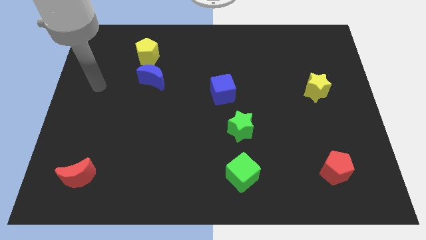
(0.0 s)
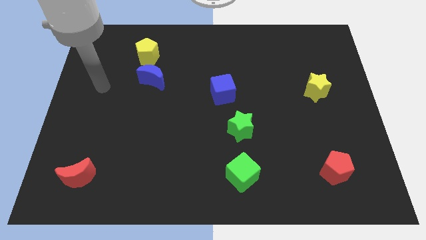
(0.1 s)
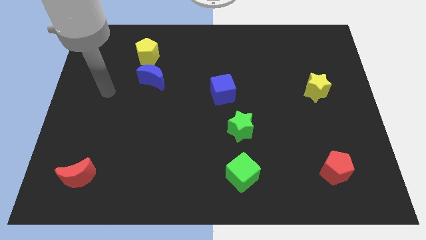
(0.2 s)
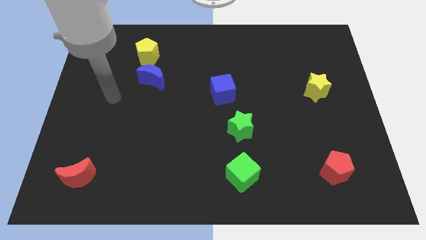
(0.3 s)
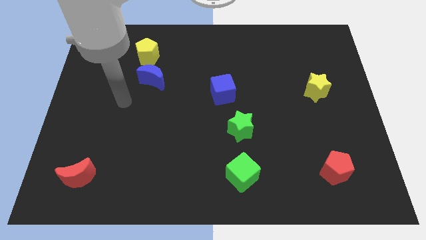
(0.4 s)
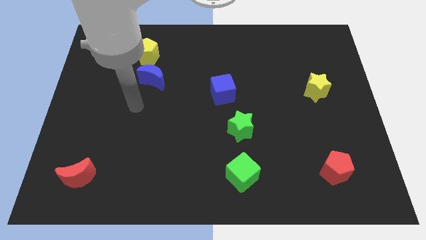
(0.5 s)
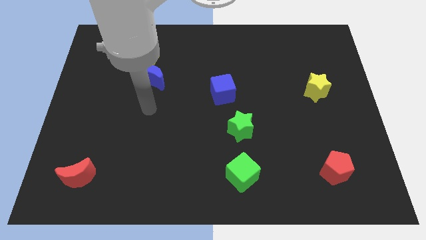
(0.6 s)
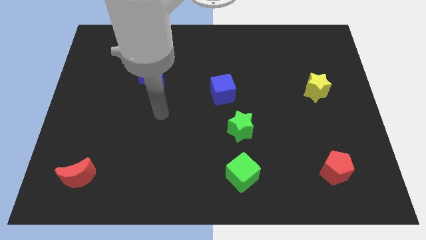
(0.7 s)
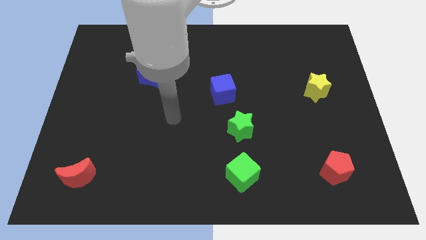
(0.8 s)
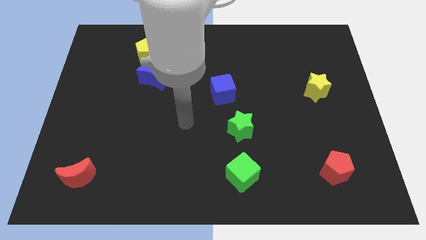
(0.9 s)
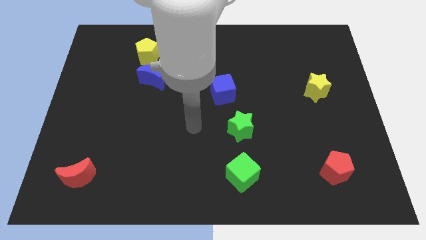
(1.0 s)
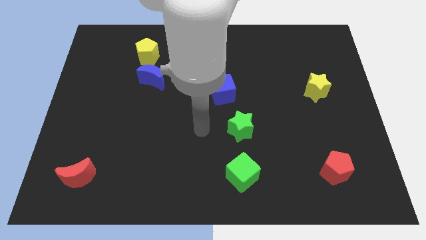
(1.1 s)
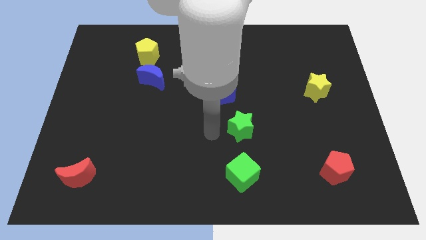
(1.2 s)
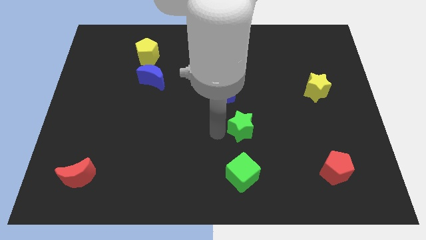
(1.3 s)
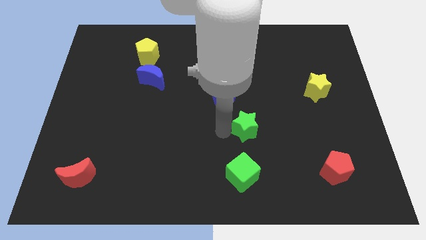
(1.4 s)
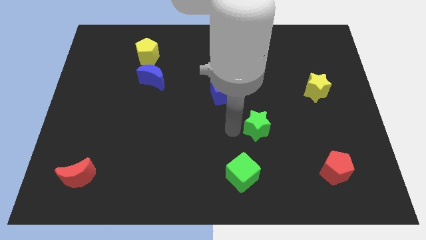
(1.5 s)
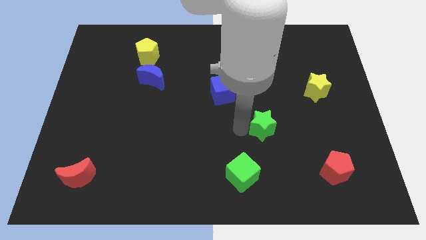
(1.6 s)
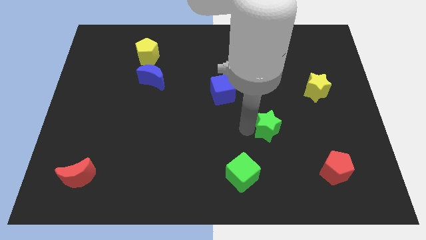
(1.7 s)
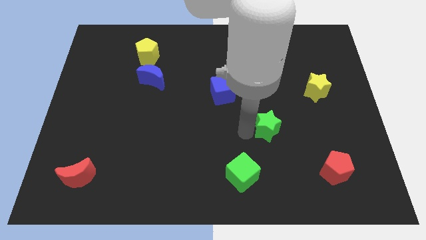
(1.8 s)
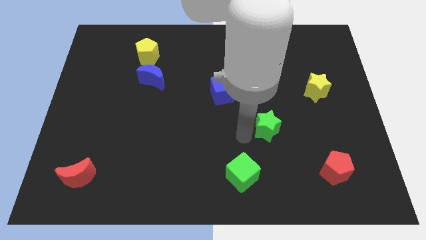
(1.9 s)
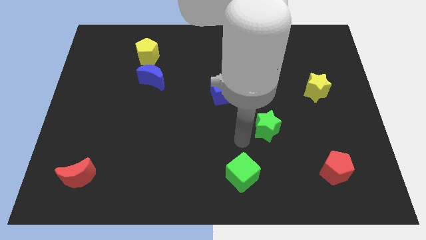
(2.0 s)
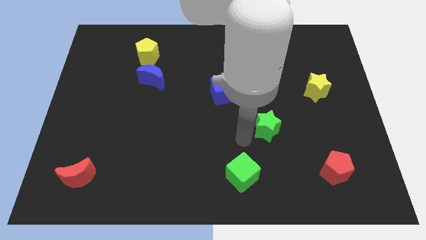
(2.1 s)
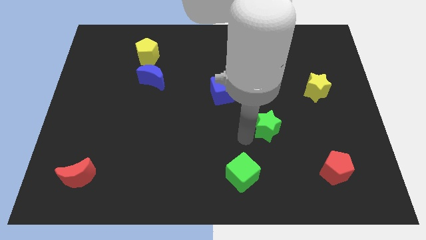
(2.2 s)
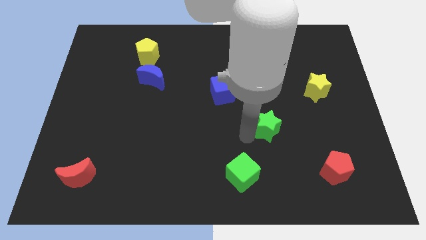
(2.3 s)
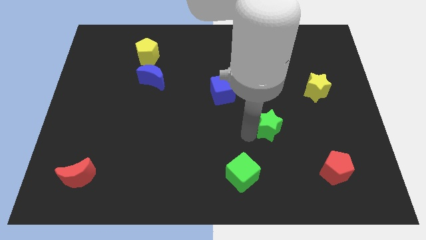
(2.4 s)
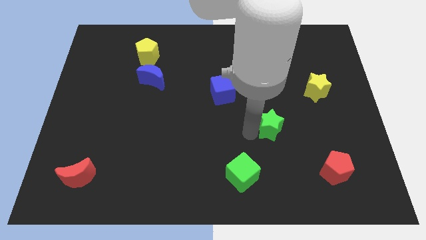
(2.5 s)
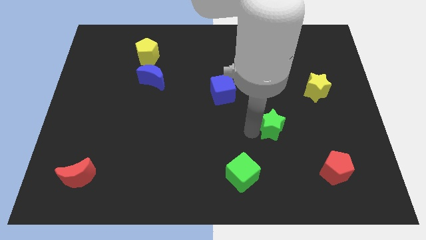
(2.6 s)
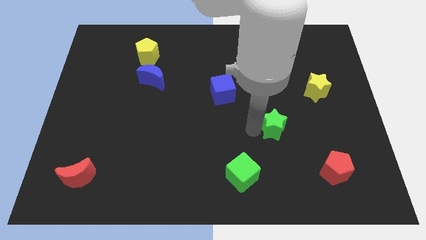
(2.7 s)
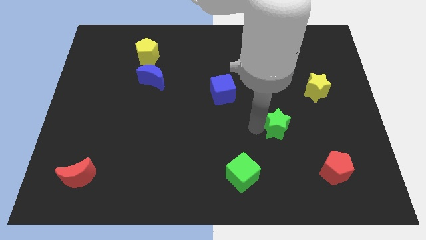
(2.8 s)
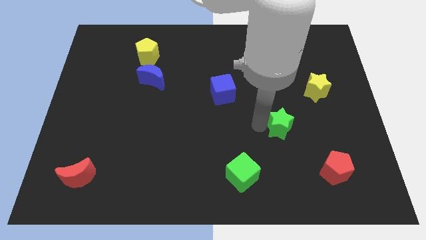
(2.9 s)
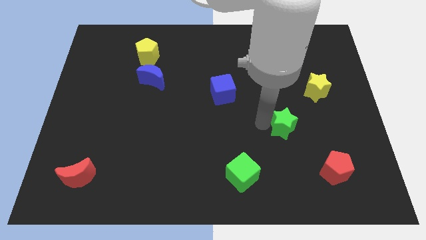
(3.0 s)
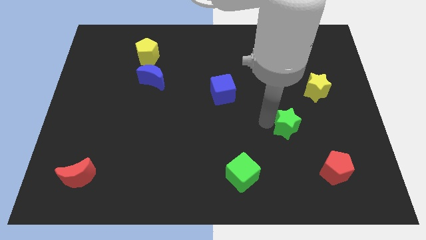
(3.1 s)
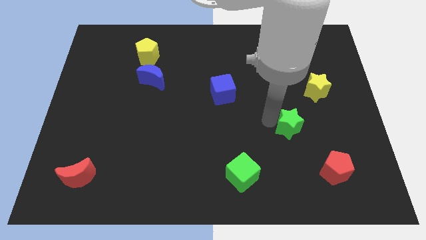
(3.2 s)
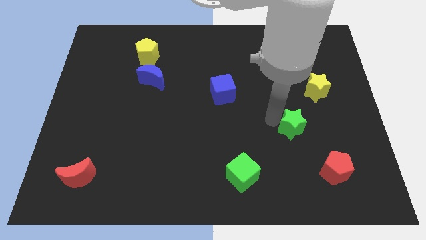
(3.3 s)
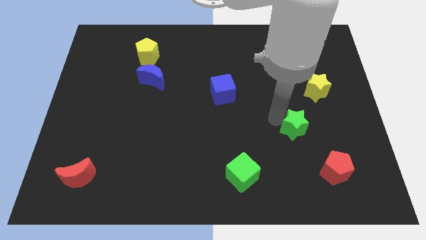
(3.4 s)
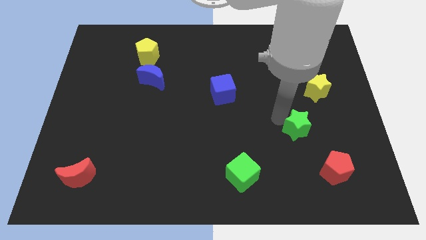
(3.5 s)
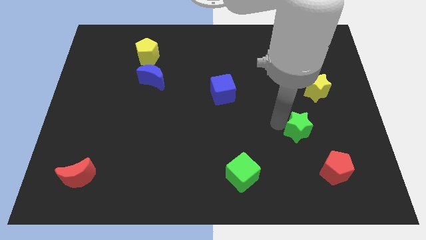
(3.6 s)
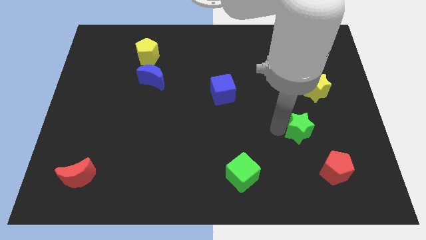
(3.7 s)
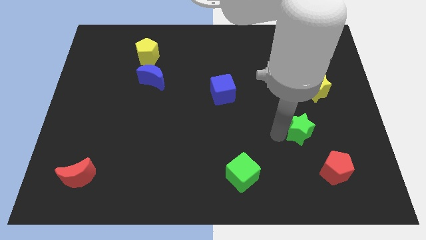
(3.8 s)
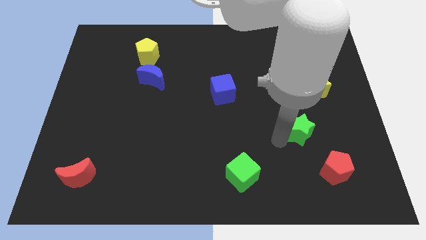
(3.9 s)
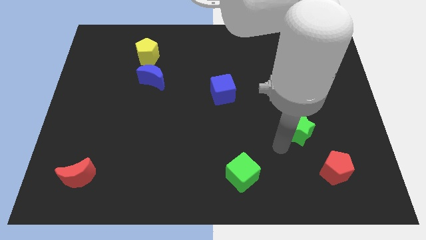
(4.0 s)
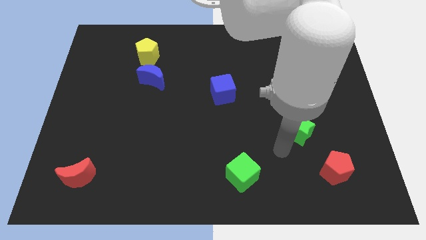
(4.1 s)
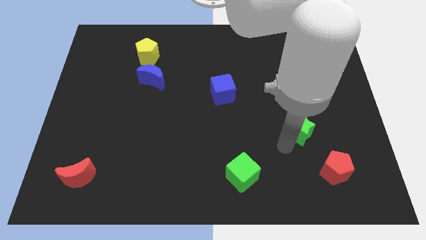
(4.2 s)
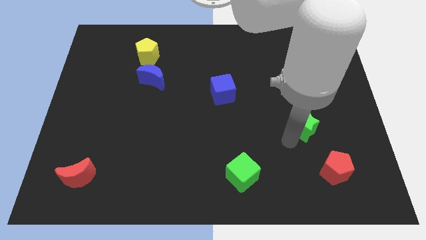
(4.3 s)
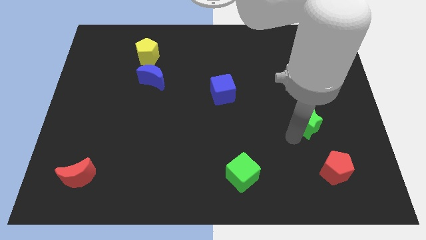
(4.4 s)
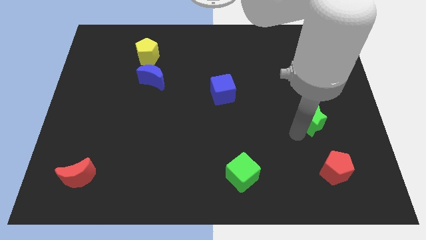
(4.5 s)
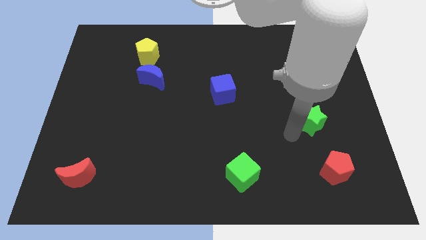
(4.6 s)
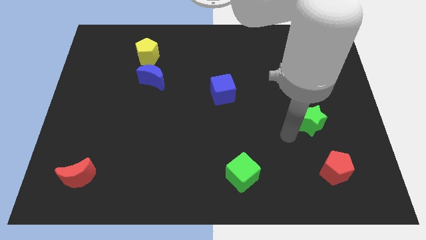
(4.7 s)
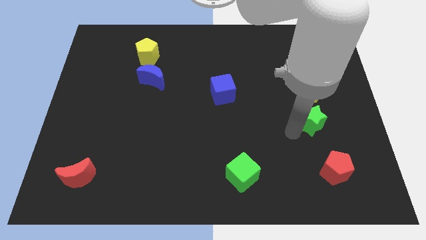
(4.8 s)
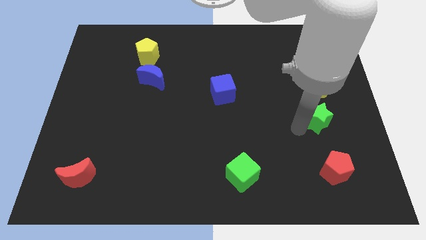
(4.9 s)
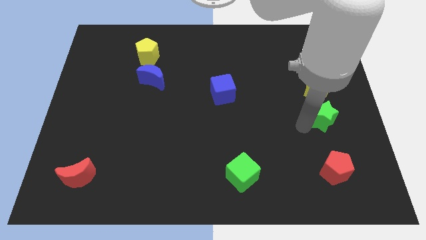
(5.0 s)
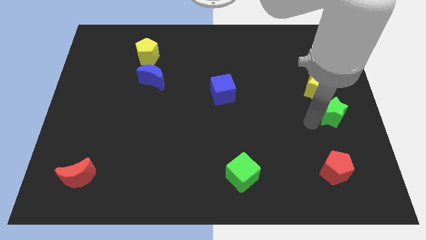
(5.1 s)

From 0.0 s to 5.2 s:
slide the green star to the right side of the board

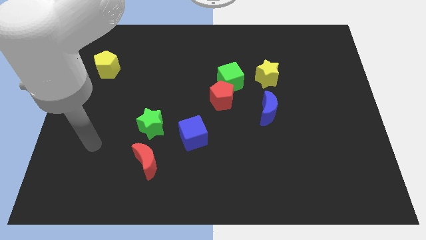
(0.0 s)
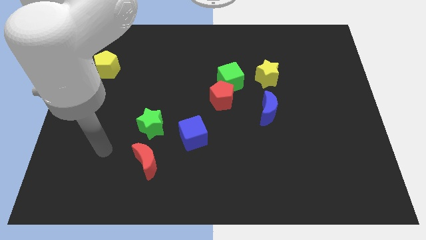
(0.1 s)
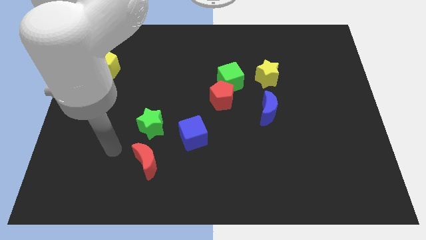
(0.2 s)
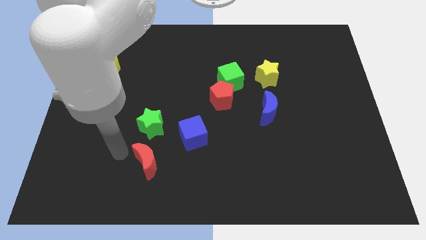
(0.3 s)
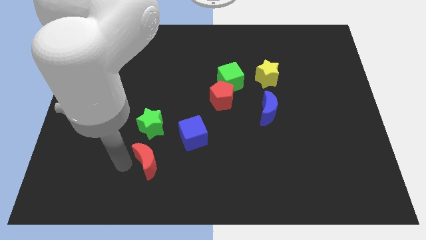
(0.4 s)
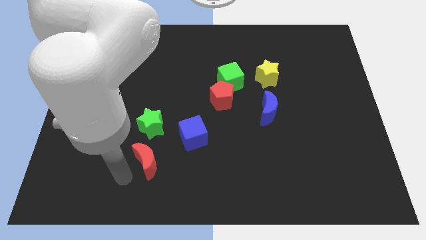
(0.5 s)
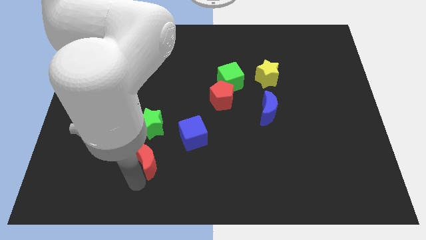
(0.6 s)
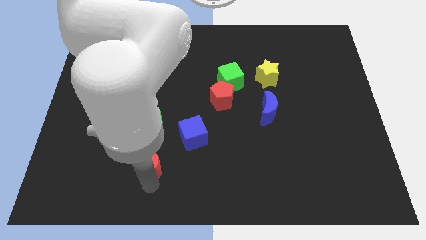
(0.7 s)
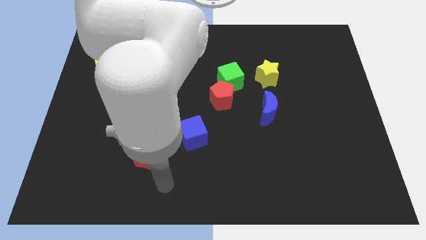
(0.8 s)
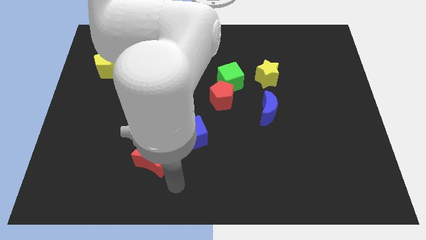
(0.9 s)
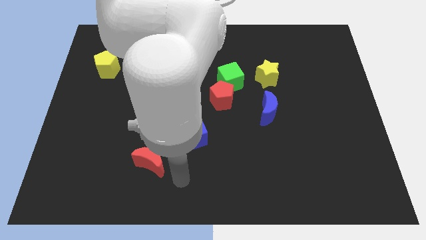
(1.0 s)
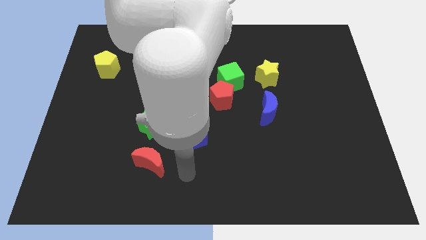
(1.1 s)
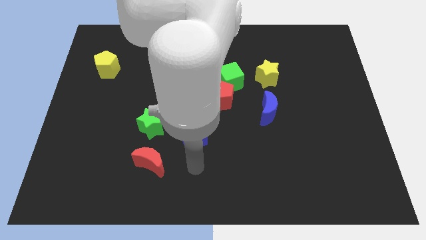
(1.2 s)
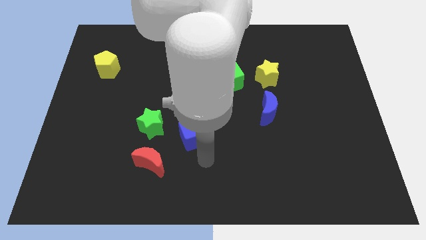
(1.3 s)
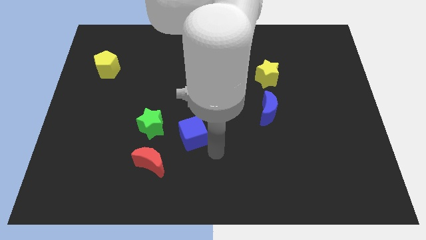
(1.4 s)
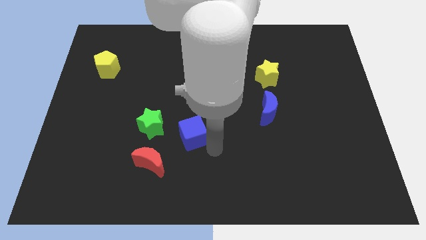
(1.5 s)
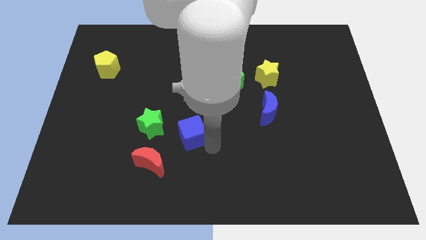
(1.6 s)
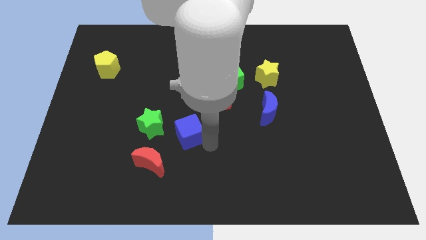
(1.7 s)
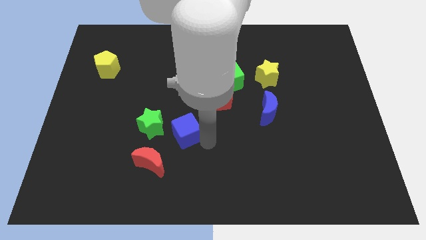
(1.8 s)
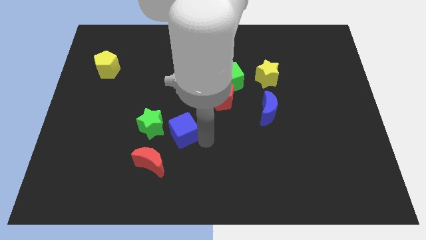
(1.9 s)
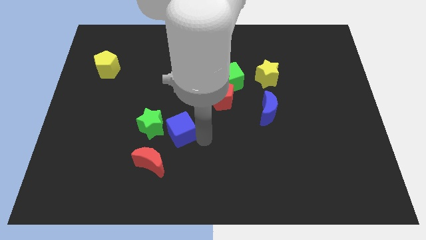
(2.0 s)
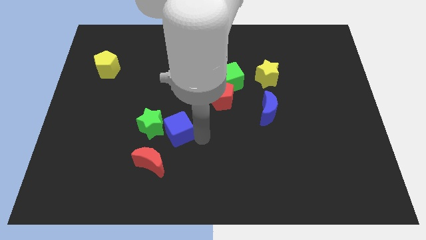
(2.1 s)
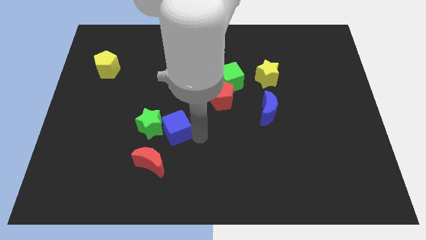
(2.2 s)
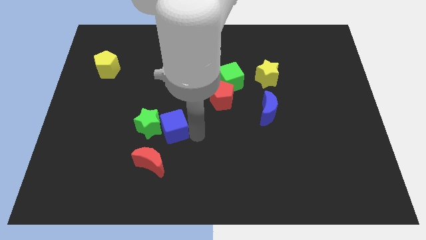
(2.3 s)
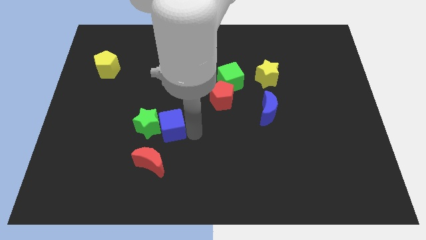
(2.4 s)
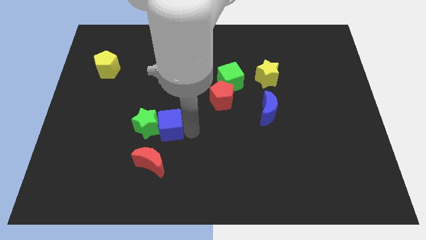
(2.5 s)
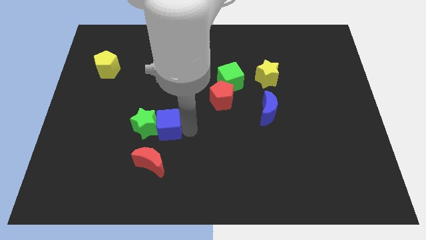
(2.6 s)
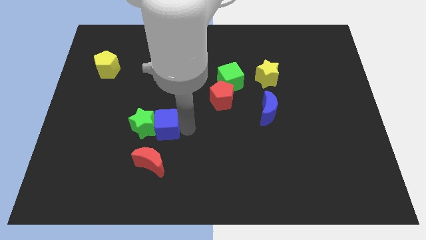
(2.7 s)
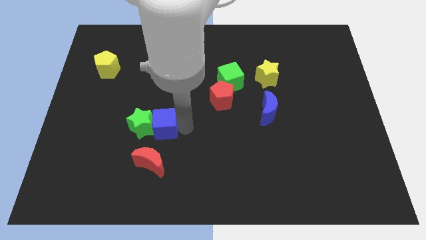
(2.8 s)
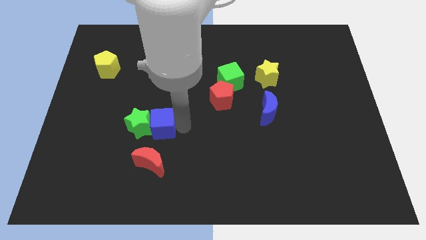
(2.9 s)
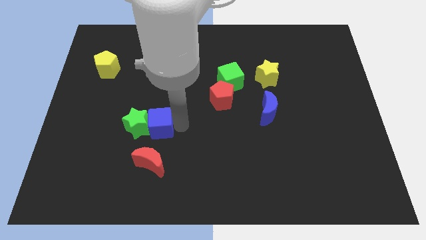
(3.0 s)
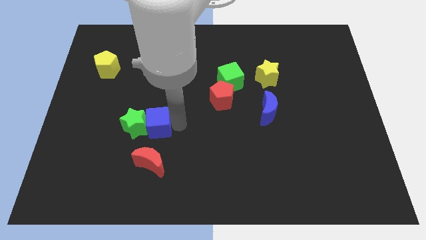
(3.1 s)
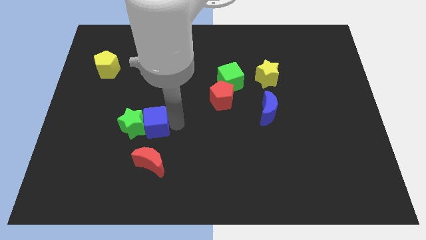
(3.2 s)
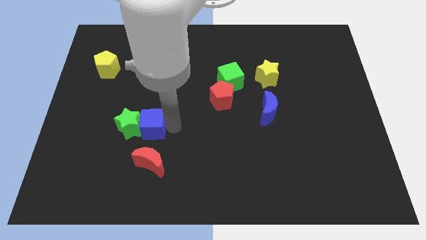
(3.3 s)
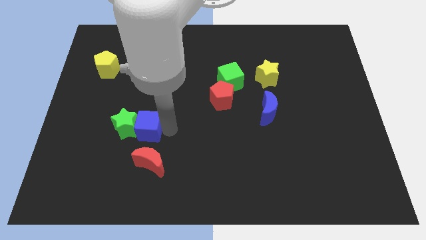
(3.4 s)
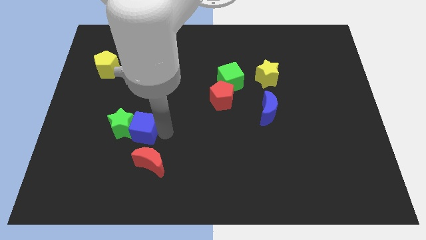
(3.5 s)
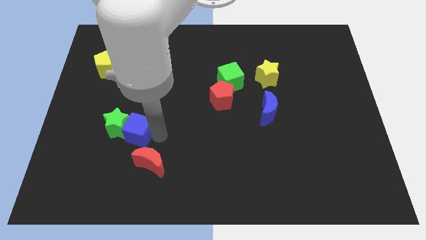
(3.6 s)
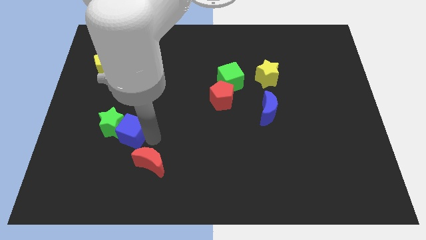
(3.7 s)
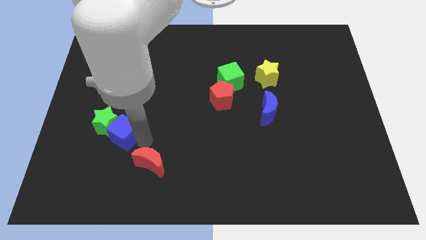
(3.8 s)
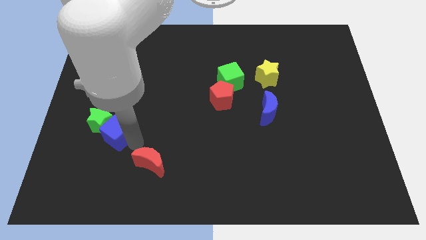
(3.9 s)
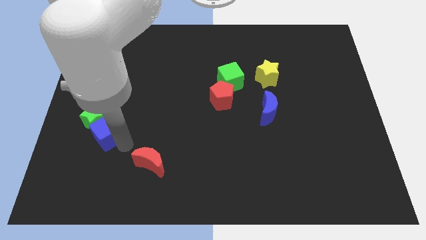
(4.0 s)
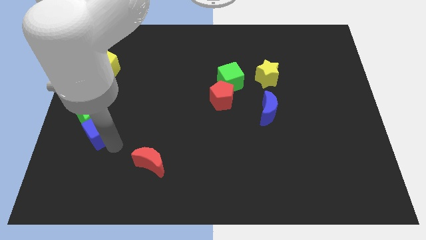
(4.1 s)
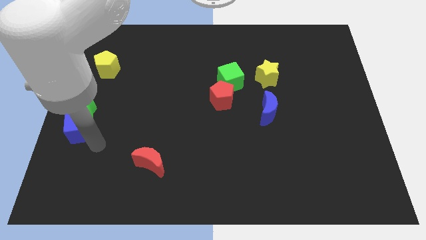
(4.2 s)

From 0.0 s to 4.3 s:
slide the blue cube to the left side
